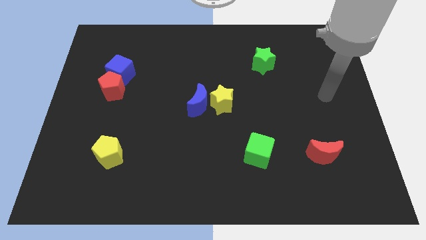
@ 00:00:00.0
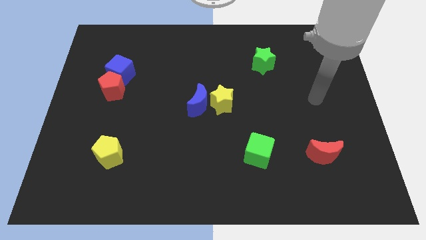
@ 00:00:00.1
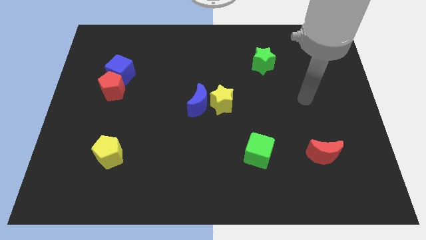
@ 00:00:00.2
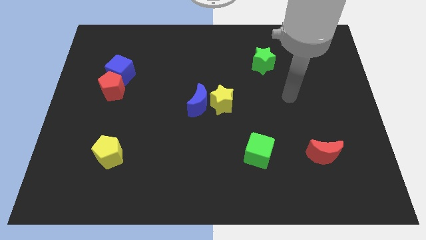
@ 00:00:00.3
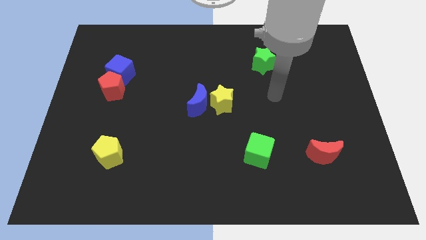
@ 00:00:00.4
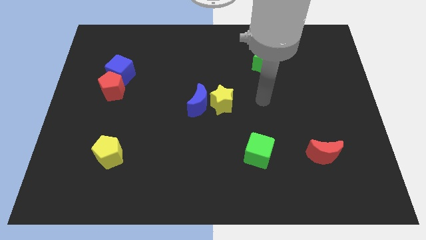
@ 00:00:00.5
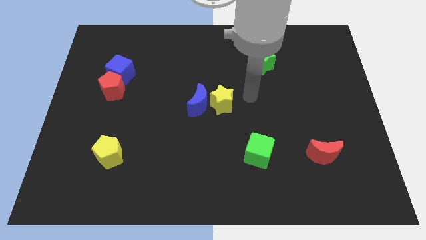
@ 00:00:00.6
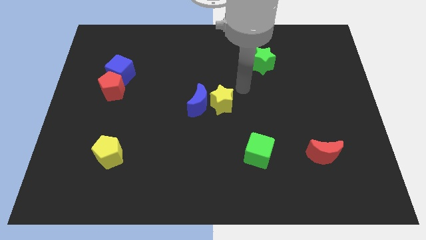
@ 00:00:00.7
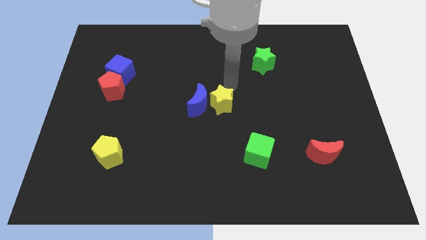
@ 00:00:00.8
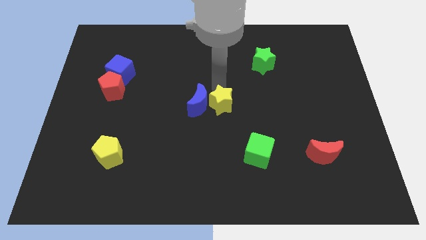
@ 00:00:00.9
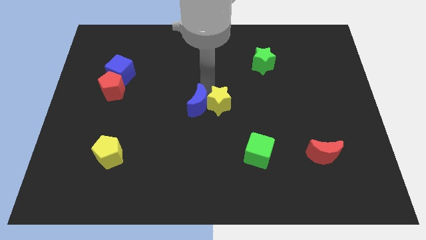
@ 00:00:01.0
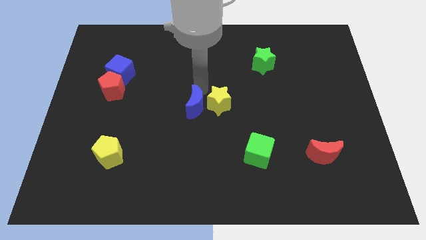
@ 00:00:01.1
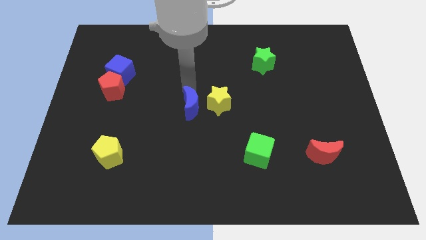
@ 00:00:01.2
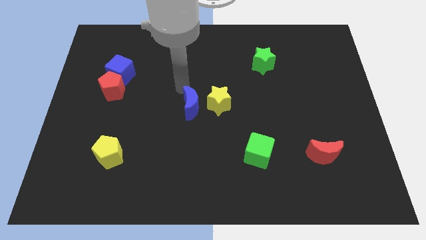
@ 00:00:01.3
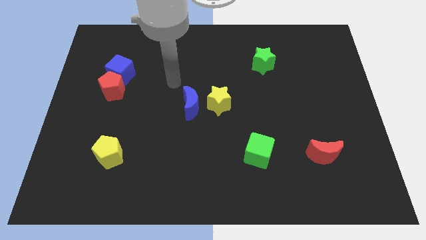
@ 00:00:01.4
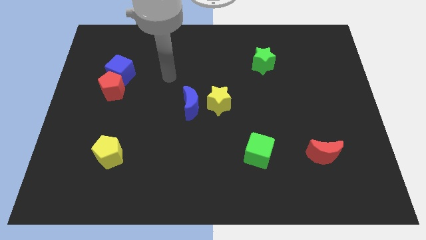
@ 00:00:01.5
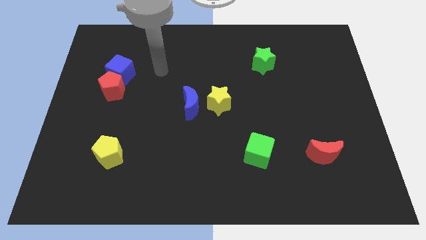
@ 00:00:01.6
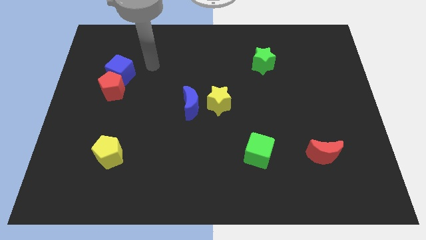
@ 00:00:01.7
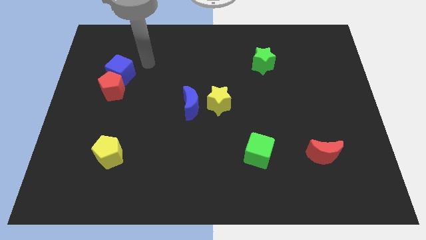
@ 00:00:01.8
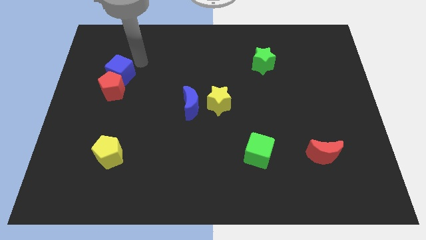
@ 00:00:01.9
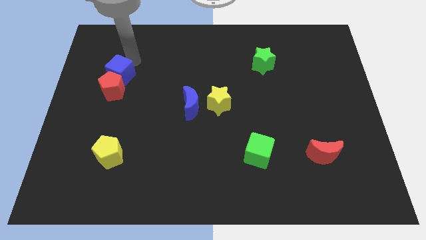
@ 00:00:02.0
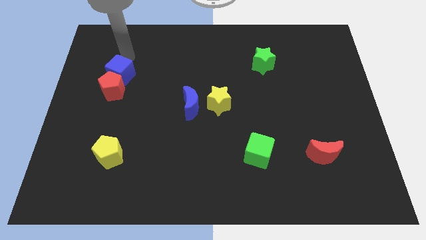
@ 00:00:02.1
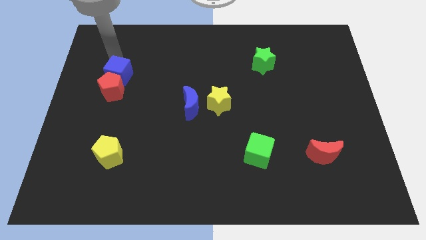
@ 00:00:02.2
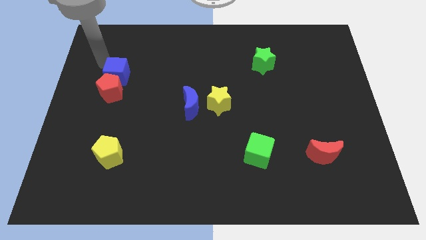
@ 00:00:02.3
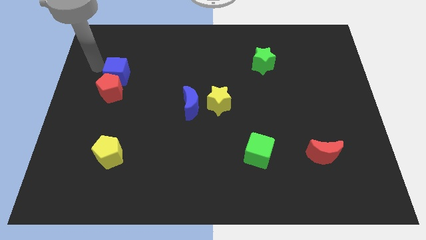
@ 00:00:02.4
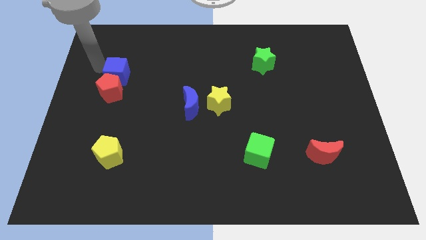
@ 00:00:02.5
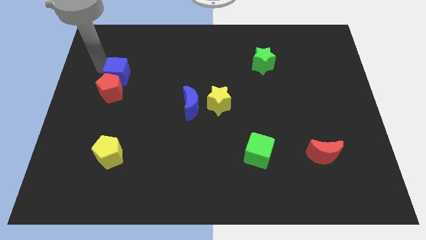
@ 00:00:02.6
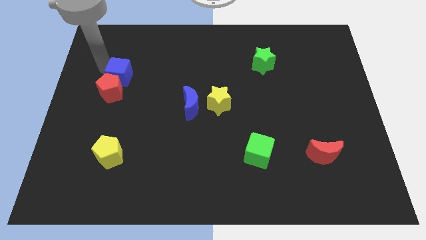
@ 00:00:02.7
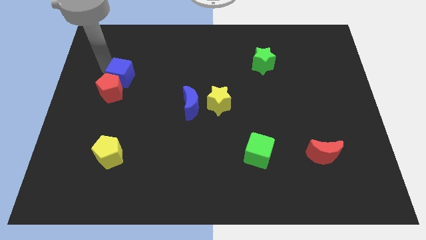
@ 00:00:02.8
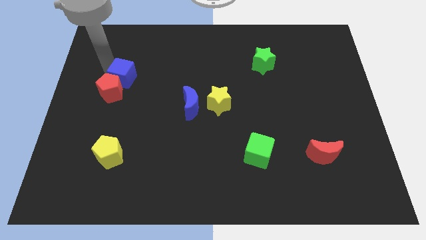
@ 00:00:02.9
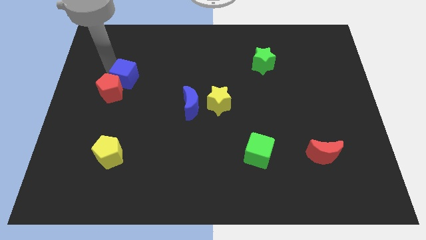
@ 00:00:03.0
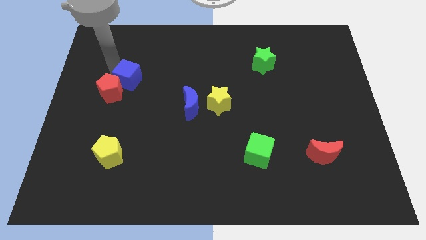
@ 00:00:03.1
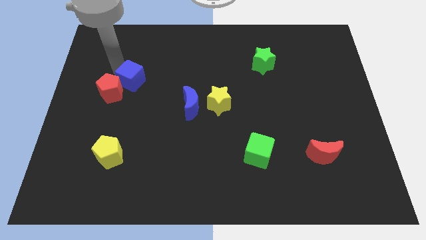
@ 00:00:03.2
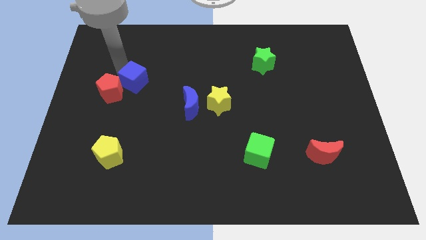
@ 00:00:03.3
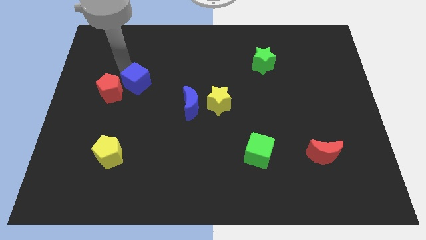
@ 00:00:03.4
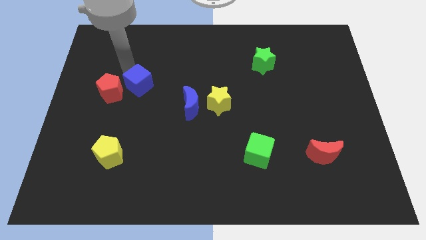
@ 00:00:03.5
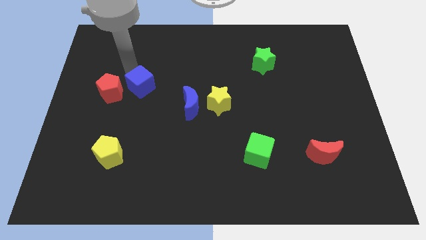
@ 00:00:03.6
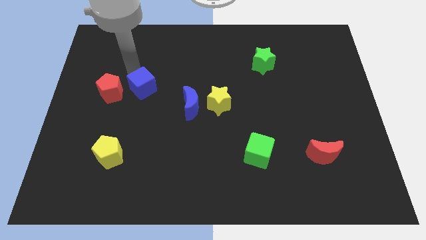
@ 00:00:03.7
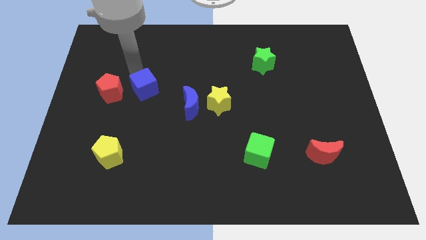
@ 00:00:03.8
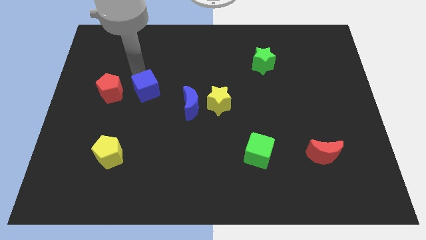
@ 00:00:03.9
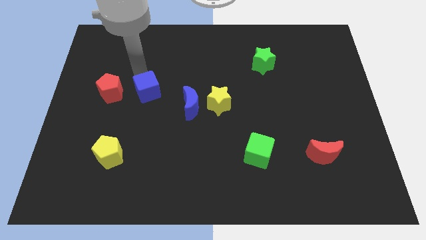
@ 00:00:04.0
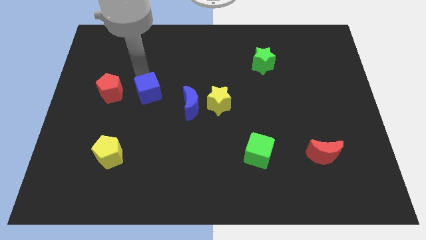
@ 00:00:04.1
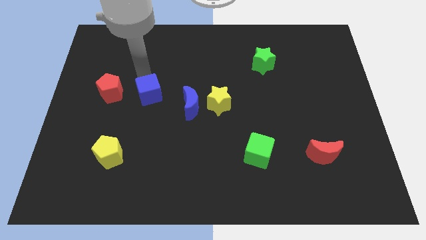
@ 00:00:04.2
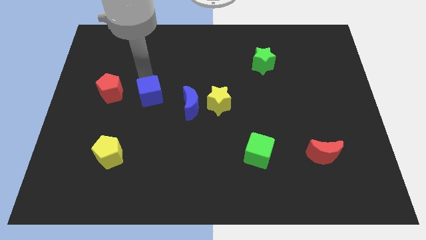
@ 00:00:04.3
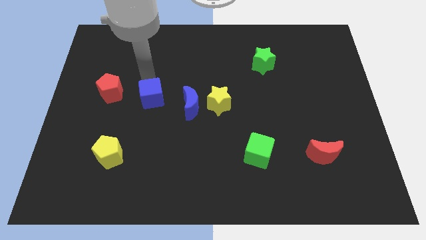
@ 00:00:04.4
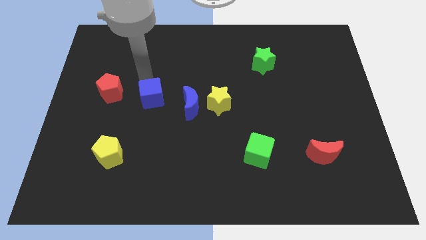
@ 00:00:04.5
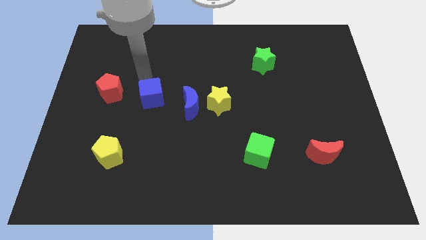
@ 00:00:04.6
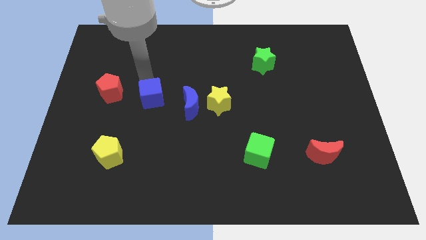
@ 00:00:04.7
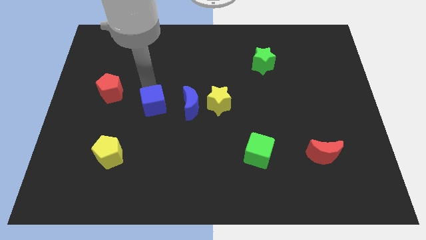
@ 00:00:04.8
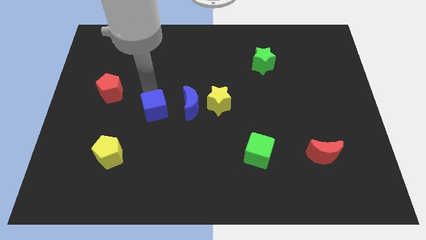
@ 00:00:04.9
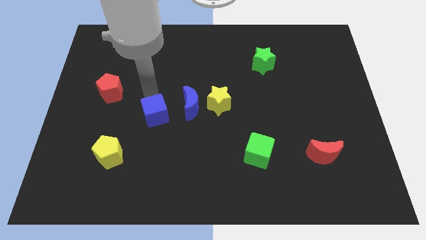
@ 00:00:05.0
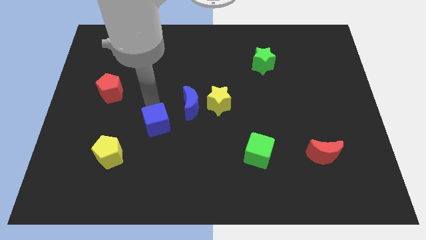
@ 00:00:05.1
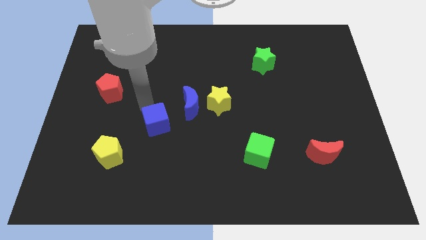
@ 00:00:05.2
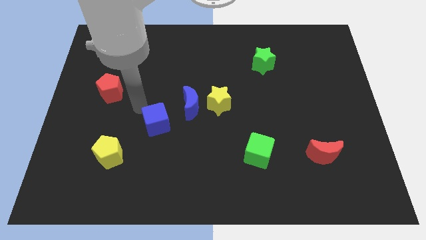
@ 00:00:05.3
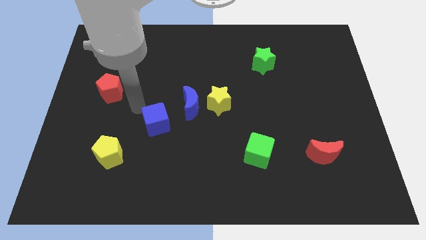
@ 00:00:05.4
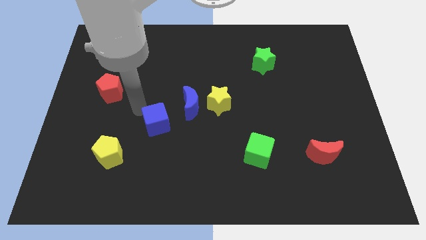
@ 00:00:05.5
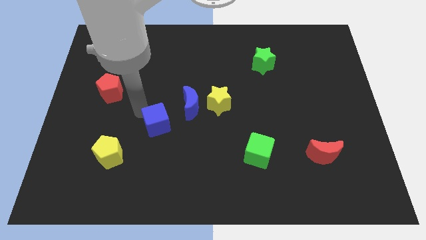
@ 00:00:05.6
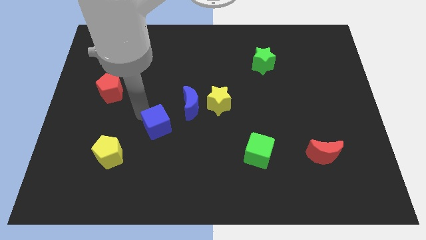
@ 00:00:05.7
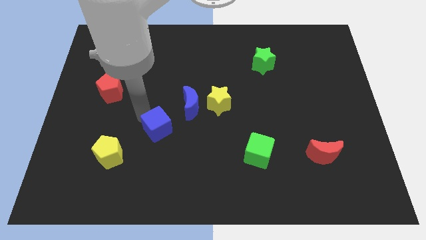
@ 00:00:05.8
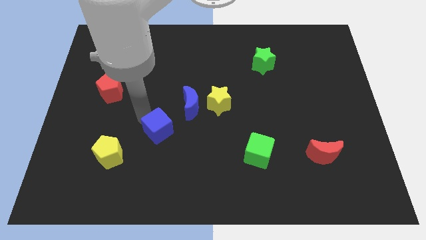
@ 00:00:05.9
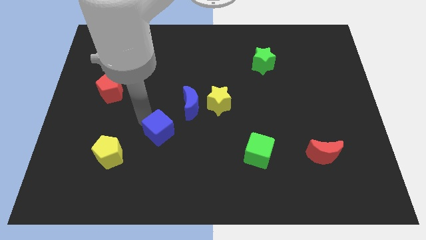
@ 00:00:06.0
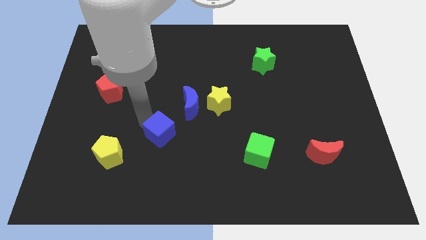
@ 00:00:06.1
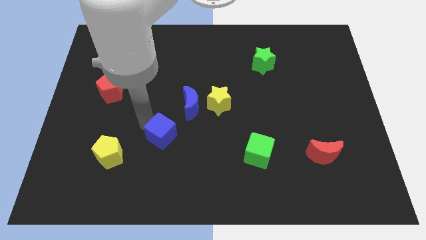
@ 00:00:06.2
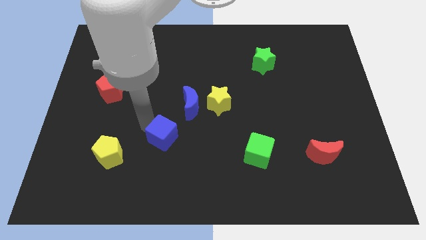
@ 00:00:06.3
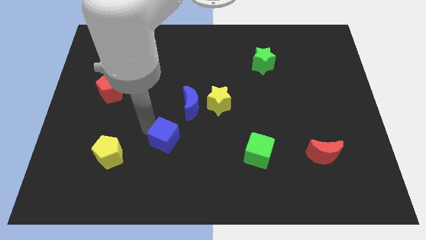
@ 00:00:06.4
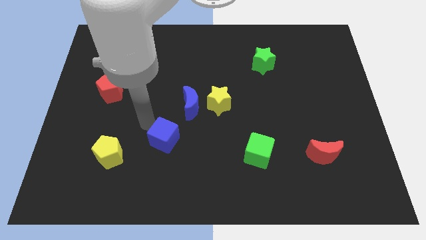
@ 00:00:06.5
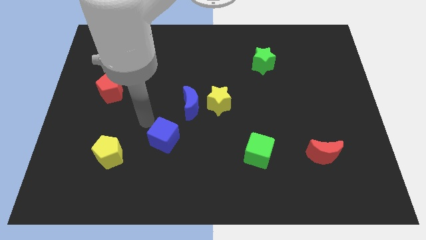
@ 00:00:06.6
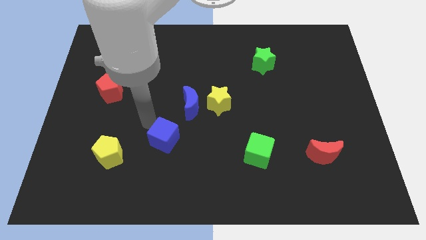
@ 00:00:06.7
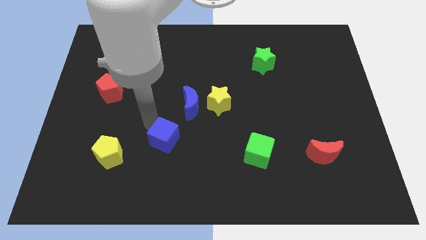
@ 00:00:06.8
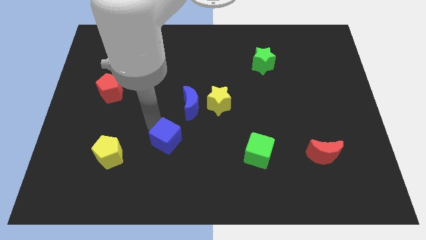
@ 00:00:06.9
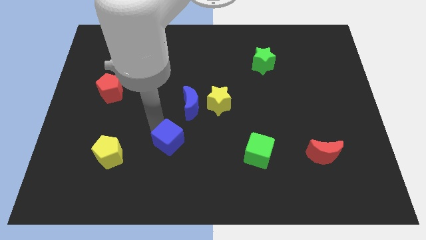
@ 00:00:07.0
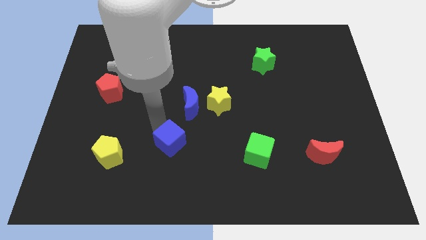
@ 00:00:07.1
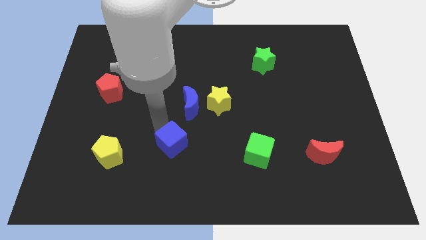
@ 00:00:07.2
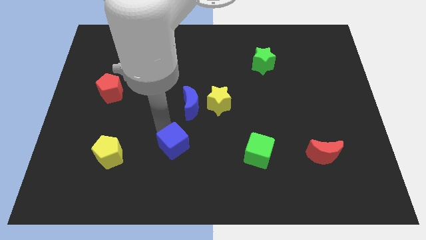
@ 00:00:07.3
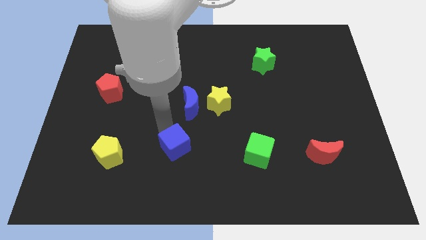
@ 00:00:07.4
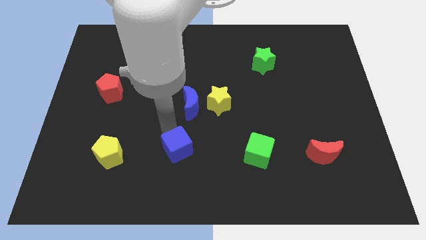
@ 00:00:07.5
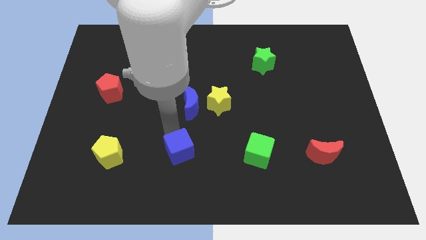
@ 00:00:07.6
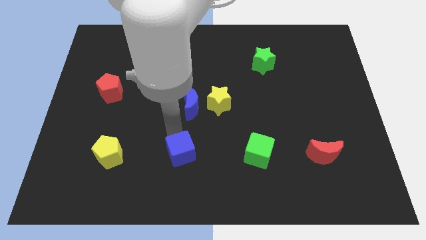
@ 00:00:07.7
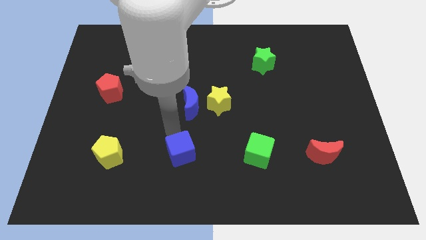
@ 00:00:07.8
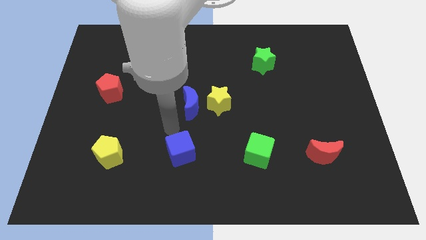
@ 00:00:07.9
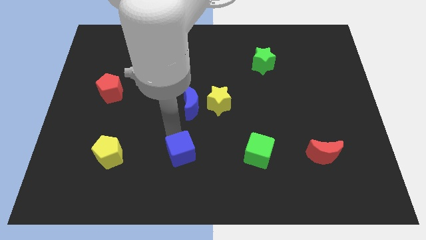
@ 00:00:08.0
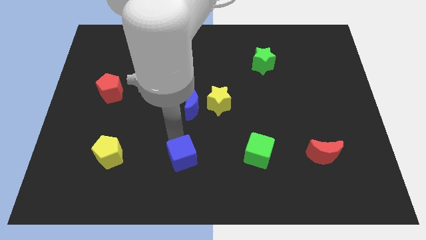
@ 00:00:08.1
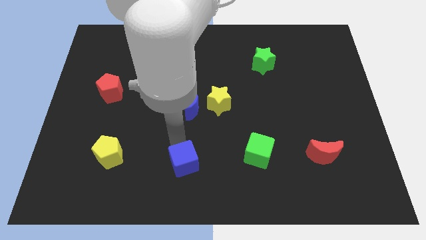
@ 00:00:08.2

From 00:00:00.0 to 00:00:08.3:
slide the blue cube to the bottom
